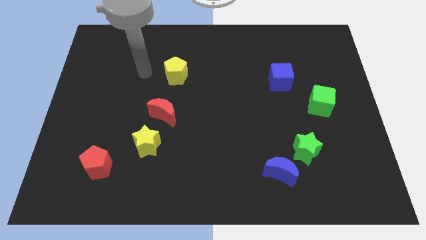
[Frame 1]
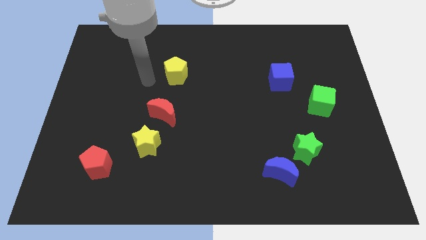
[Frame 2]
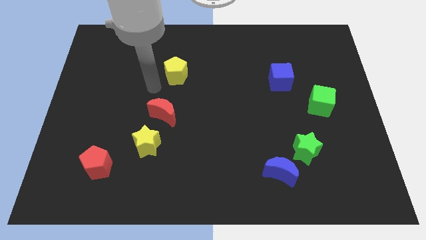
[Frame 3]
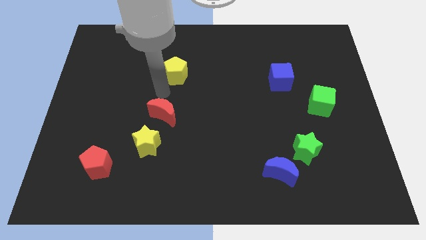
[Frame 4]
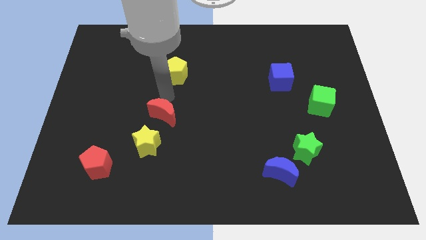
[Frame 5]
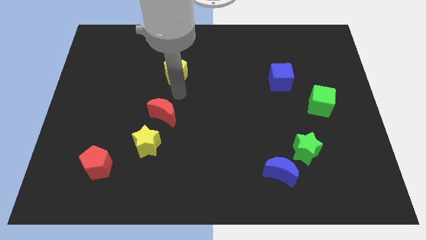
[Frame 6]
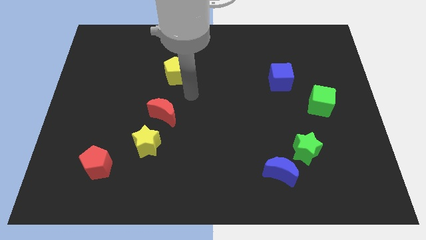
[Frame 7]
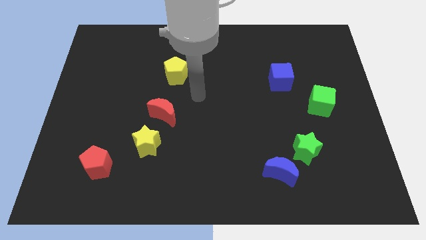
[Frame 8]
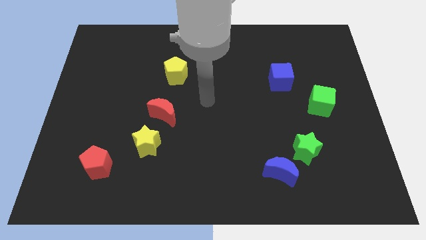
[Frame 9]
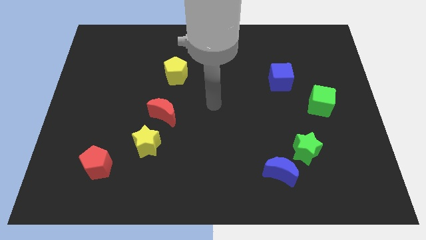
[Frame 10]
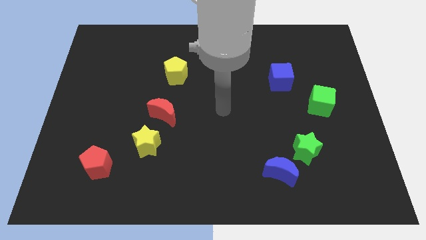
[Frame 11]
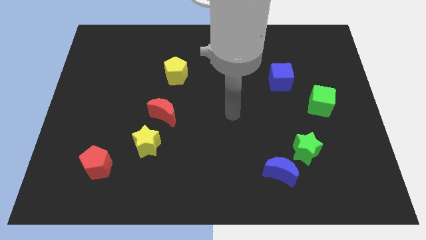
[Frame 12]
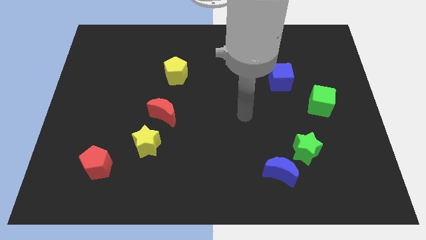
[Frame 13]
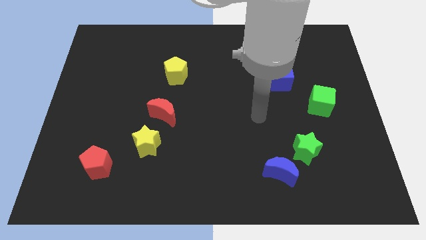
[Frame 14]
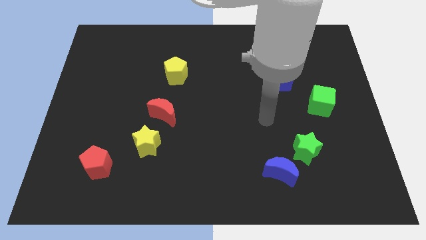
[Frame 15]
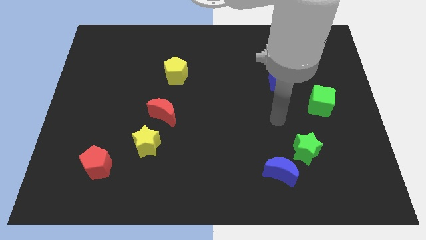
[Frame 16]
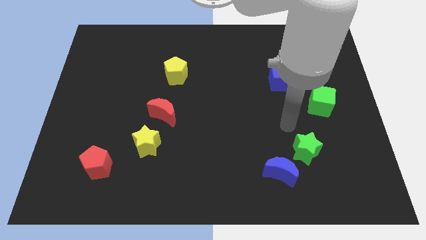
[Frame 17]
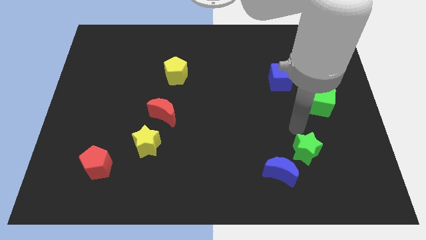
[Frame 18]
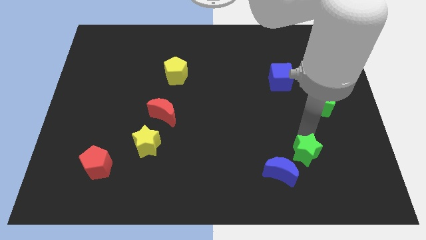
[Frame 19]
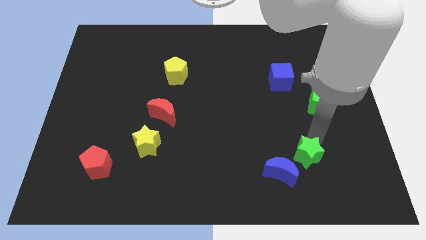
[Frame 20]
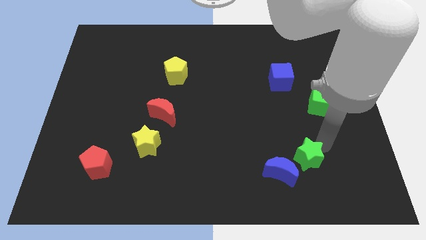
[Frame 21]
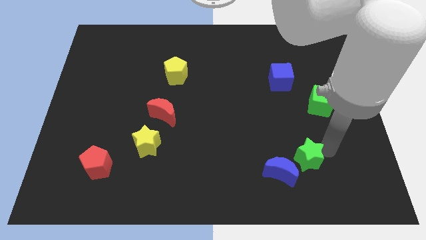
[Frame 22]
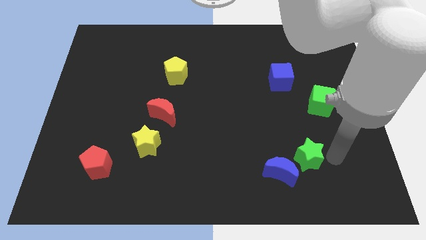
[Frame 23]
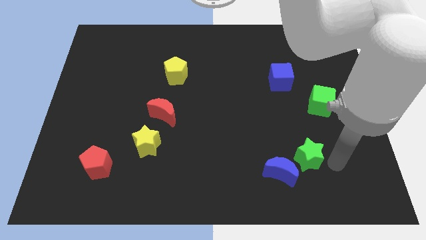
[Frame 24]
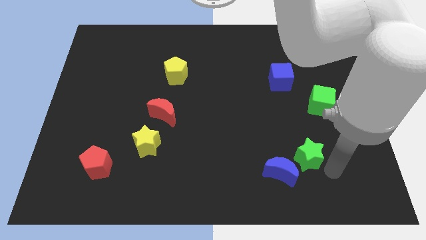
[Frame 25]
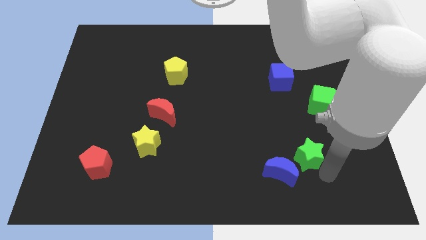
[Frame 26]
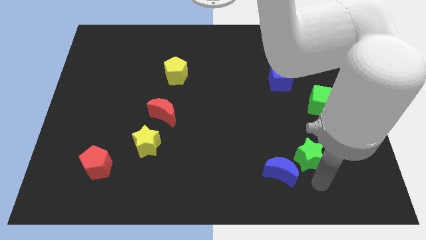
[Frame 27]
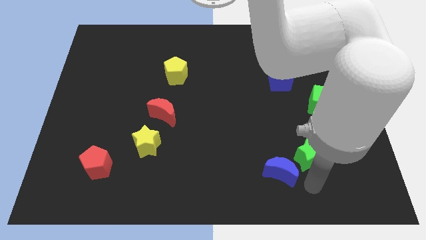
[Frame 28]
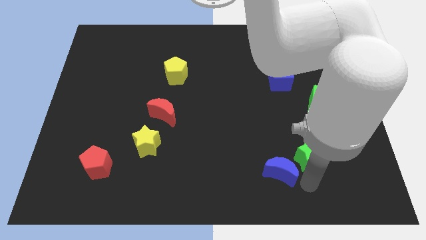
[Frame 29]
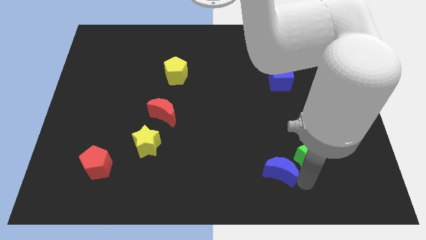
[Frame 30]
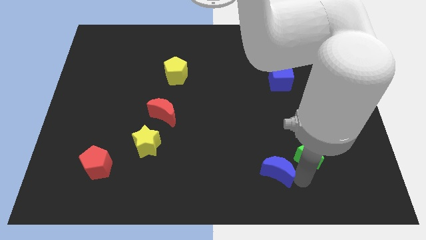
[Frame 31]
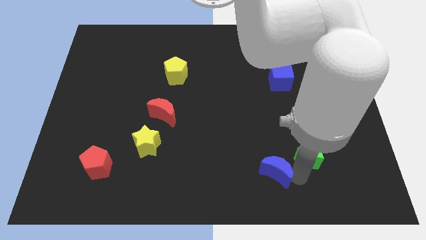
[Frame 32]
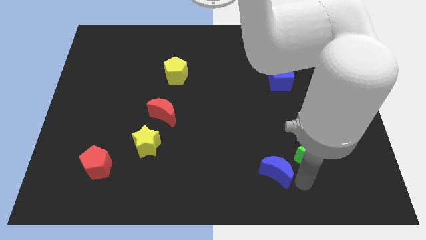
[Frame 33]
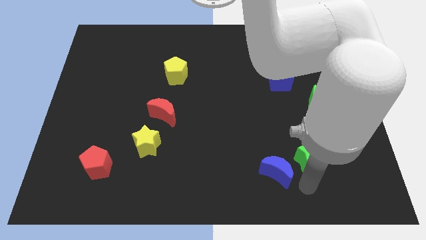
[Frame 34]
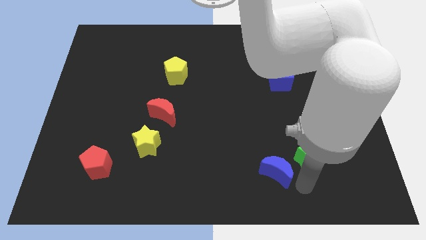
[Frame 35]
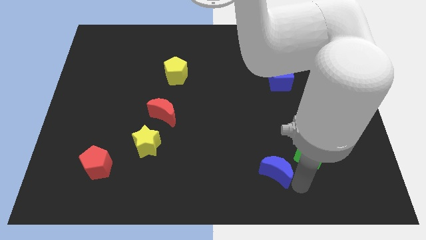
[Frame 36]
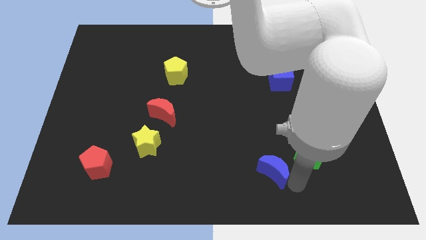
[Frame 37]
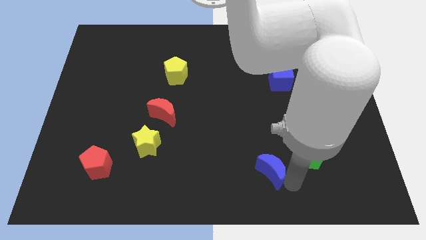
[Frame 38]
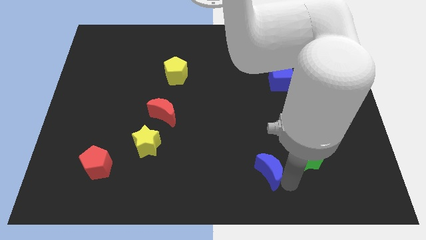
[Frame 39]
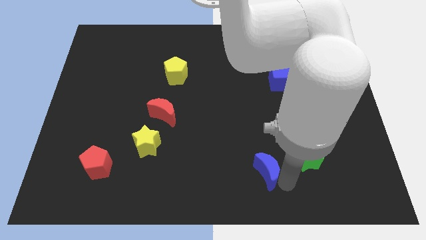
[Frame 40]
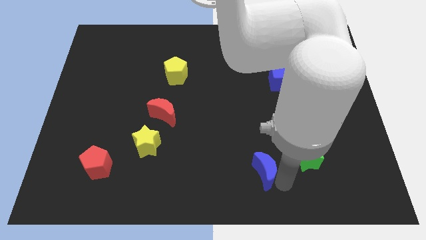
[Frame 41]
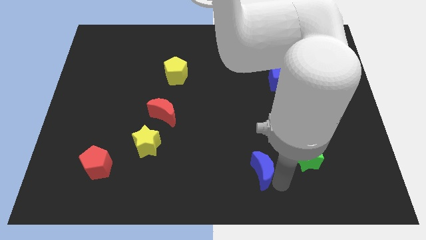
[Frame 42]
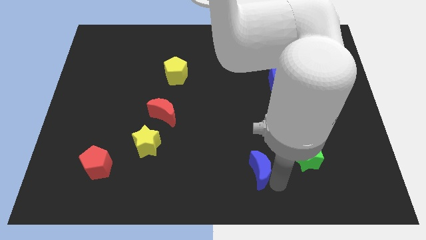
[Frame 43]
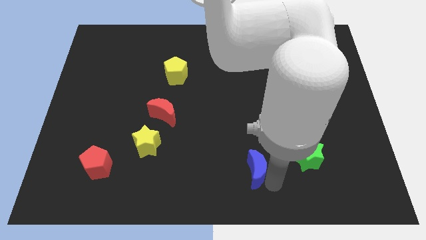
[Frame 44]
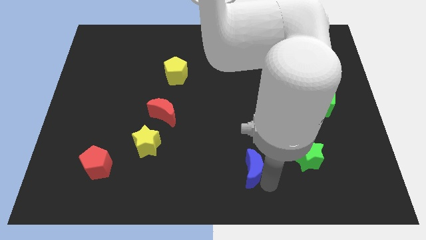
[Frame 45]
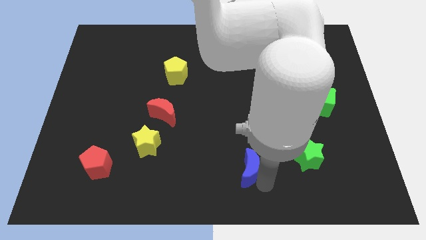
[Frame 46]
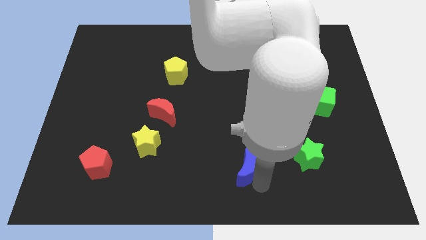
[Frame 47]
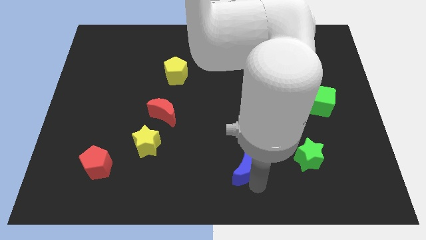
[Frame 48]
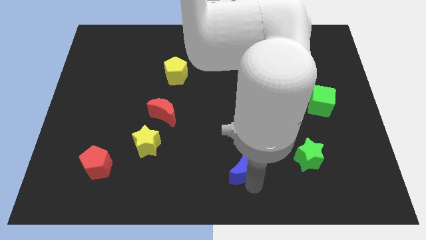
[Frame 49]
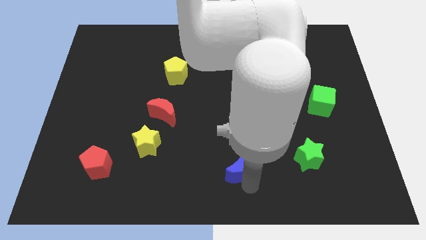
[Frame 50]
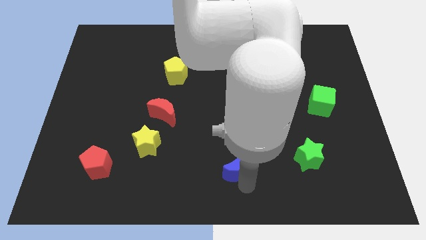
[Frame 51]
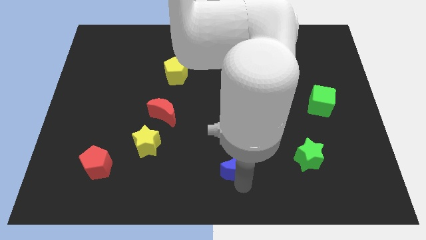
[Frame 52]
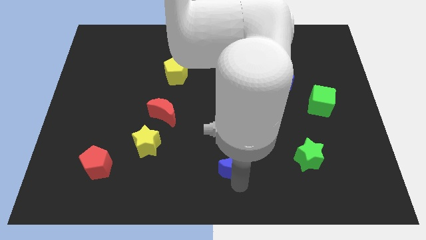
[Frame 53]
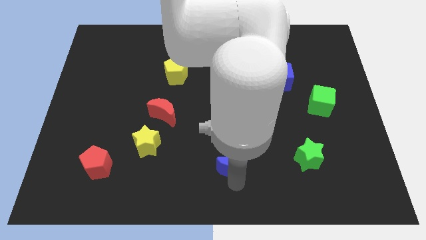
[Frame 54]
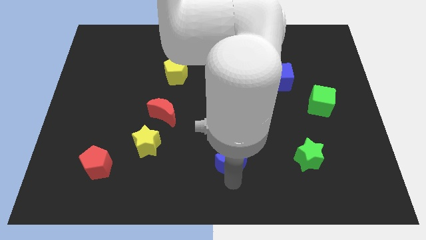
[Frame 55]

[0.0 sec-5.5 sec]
slightly push the blue moon up and then to the left

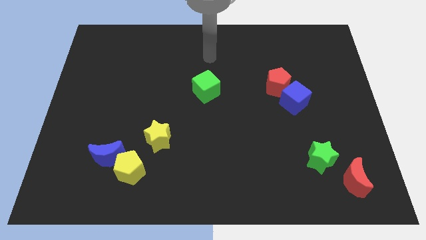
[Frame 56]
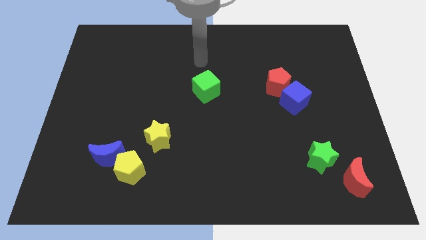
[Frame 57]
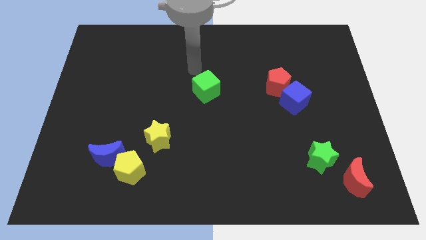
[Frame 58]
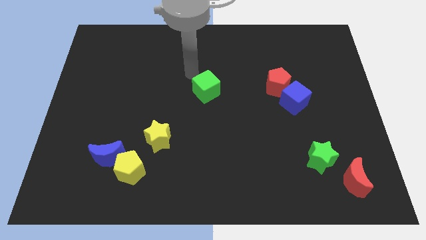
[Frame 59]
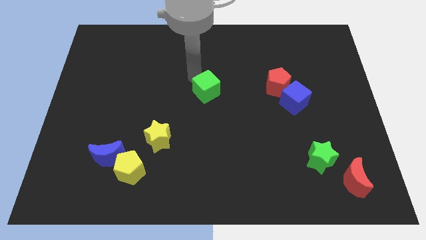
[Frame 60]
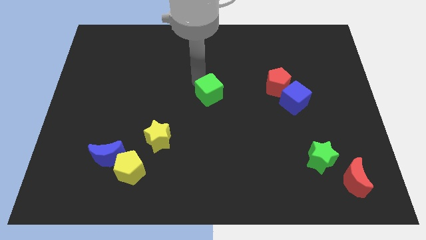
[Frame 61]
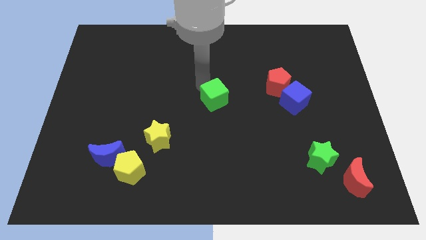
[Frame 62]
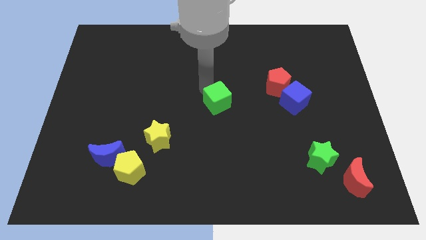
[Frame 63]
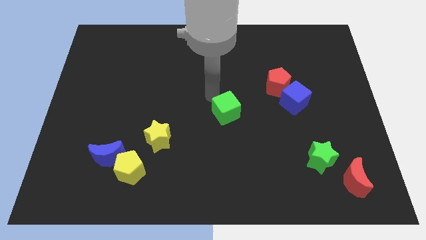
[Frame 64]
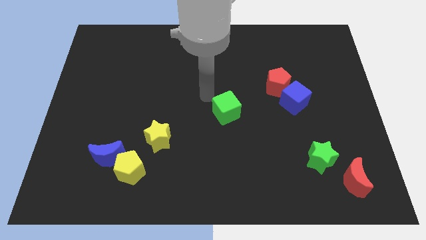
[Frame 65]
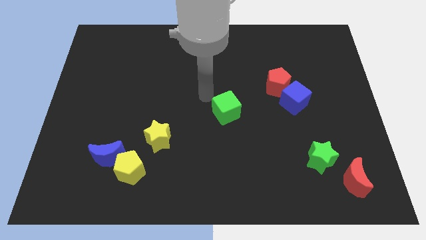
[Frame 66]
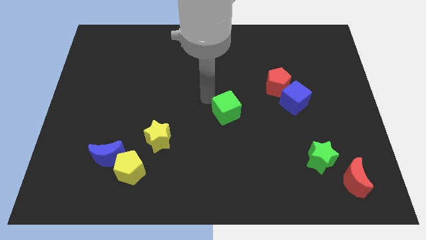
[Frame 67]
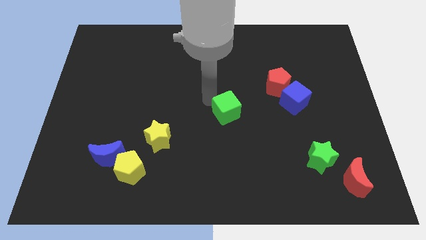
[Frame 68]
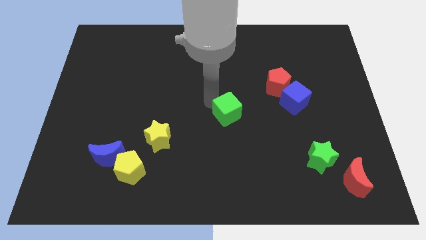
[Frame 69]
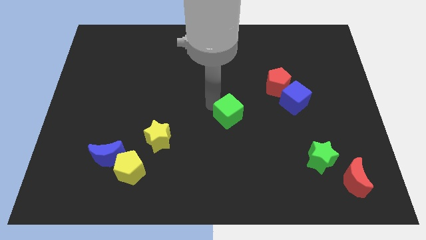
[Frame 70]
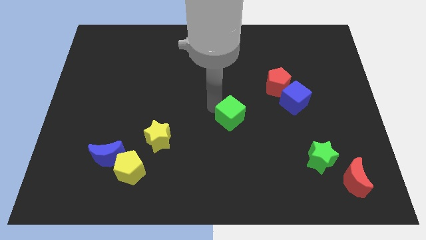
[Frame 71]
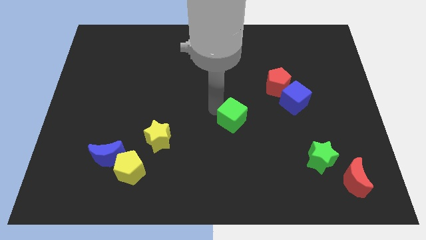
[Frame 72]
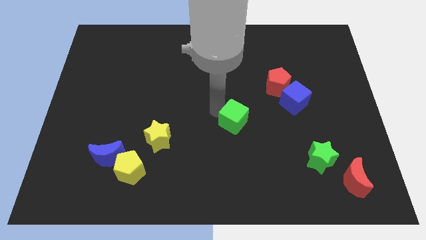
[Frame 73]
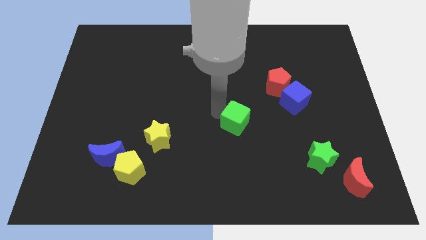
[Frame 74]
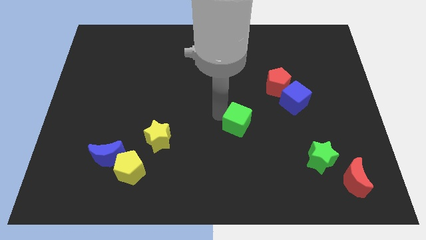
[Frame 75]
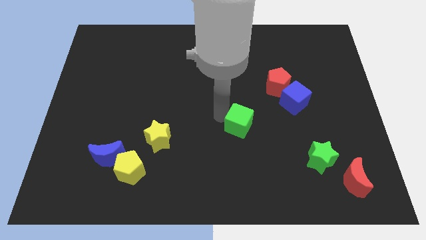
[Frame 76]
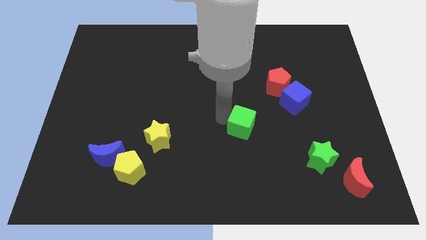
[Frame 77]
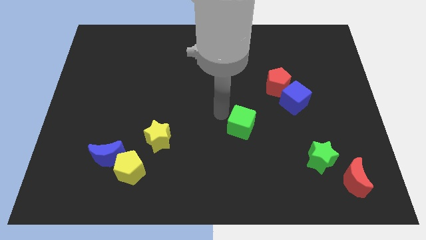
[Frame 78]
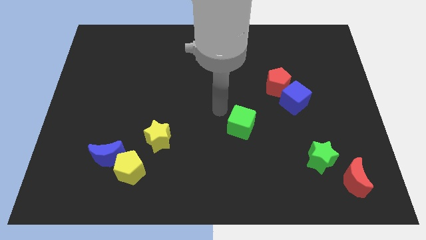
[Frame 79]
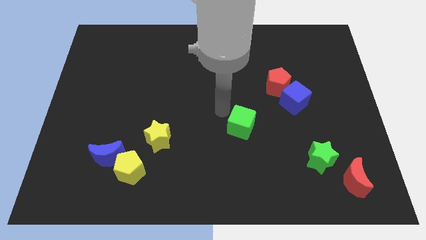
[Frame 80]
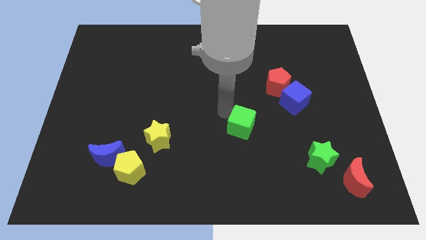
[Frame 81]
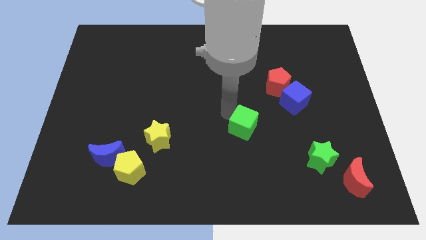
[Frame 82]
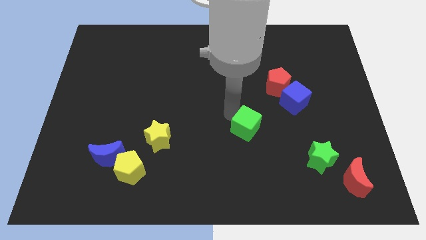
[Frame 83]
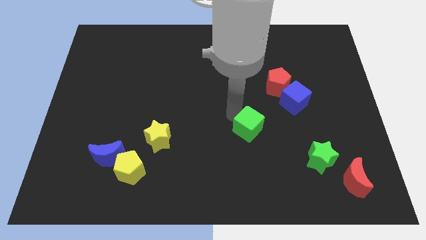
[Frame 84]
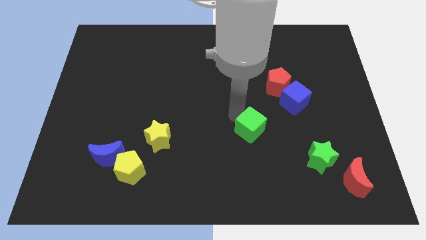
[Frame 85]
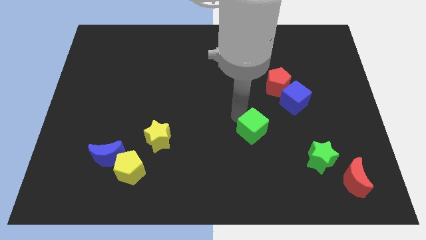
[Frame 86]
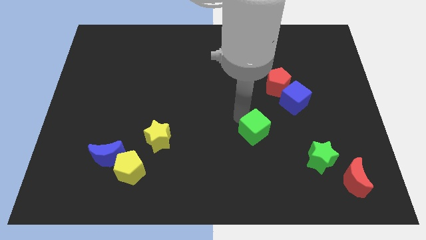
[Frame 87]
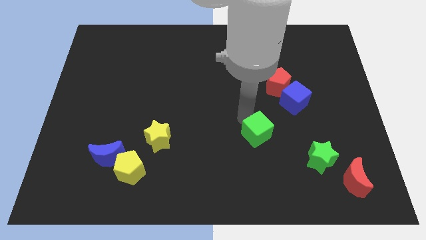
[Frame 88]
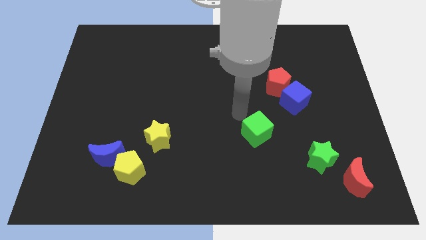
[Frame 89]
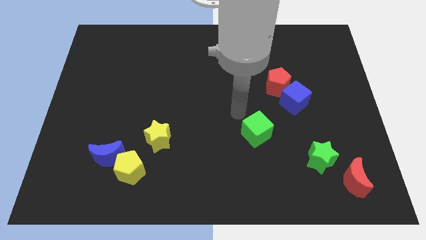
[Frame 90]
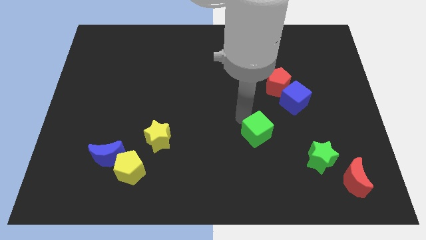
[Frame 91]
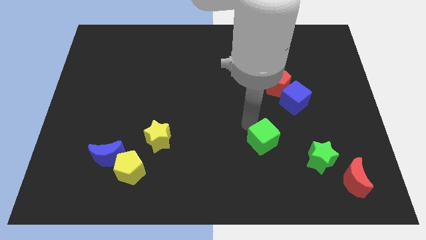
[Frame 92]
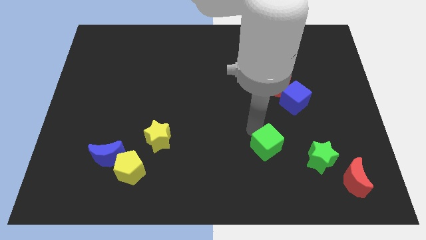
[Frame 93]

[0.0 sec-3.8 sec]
slide the green cube downwards and right
